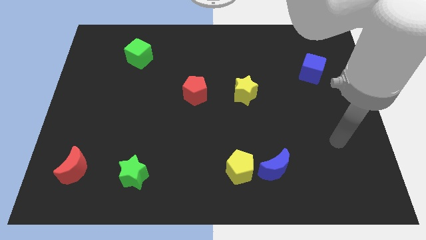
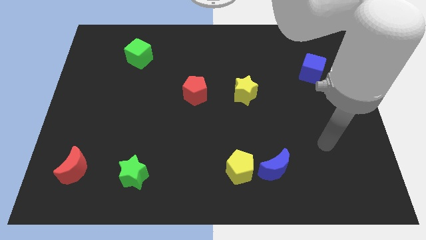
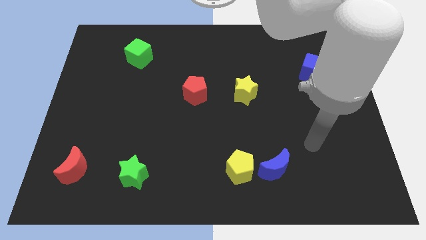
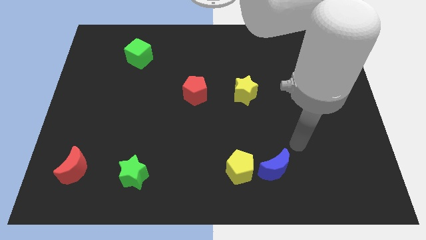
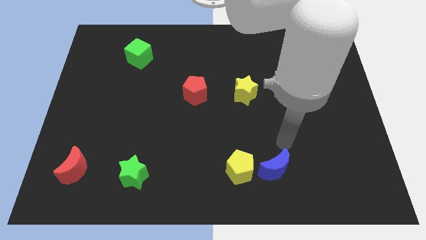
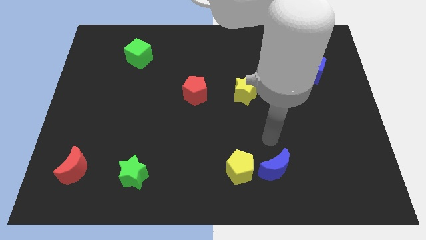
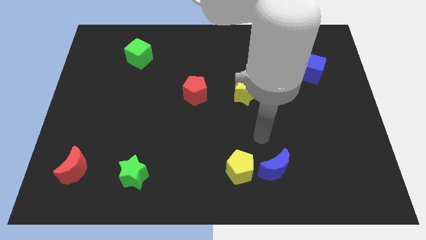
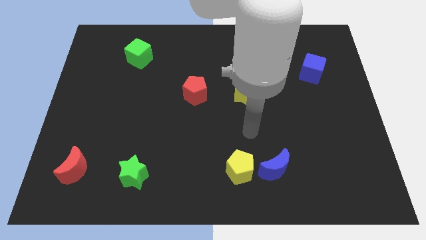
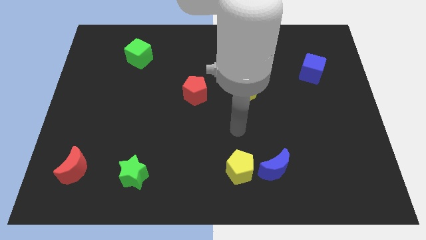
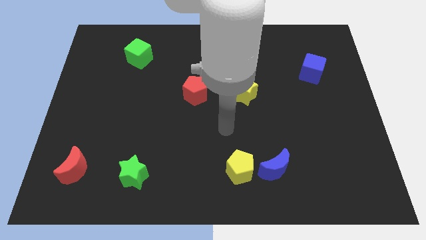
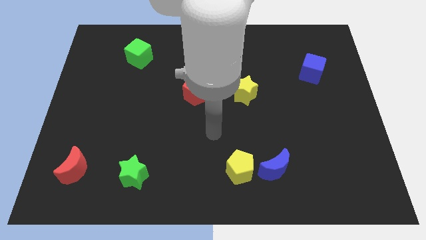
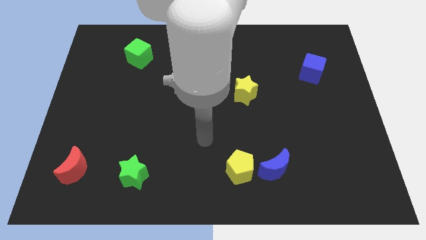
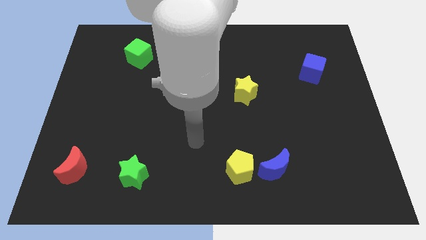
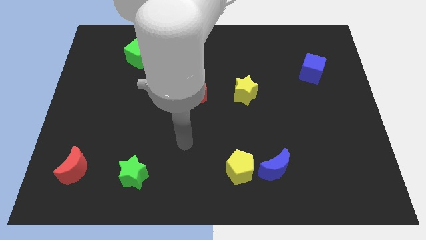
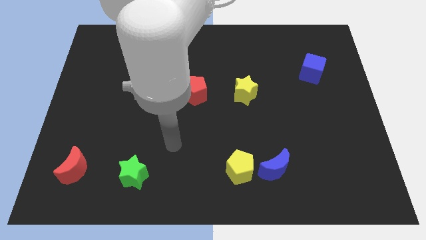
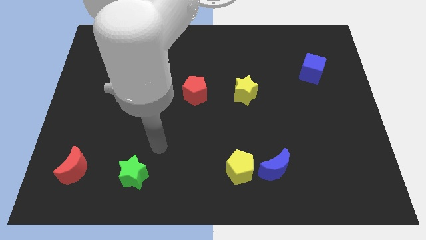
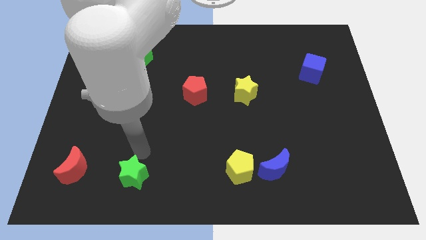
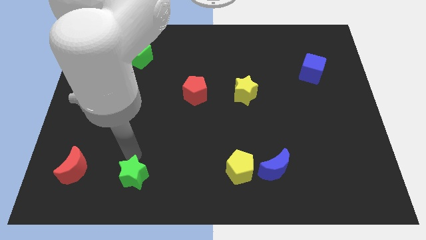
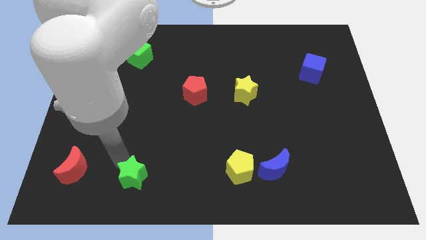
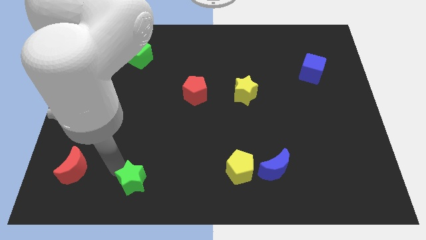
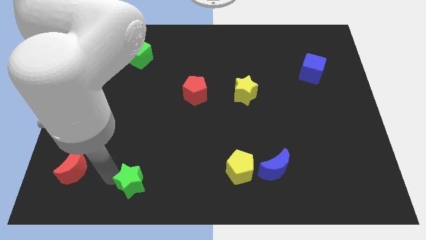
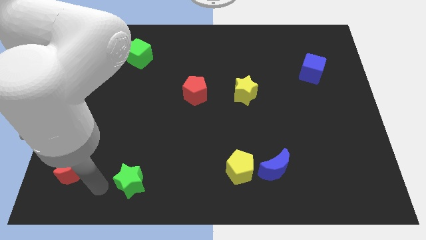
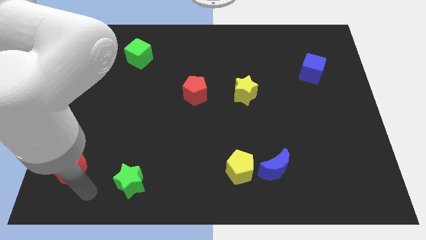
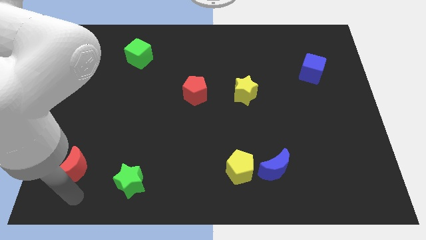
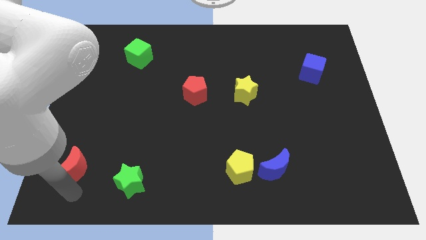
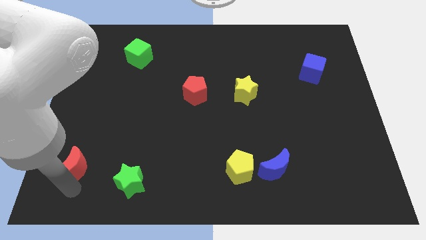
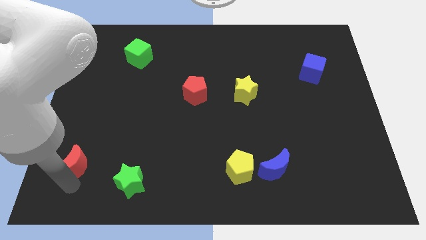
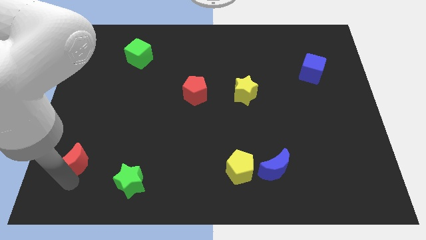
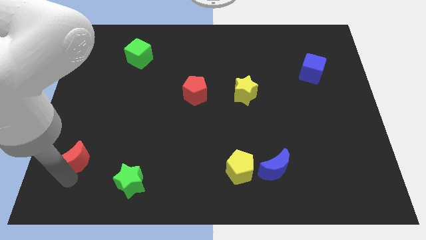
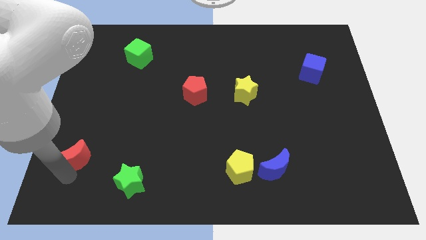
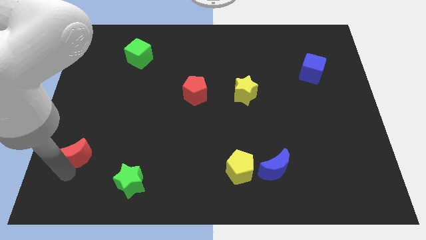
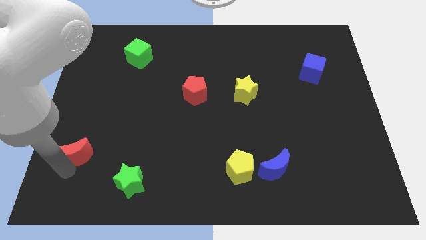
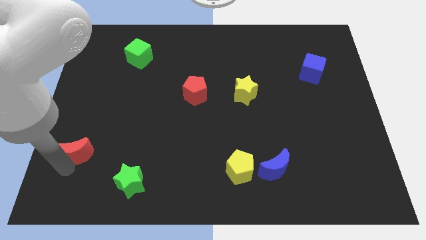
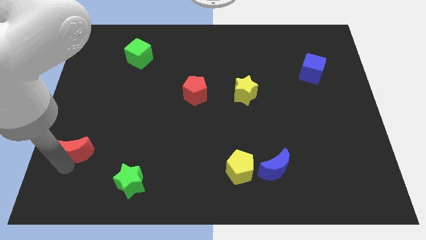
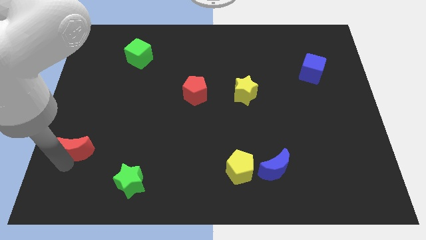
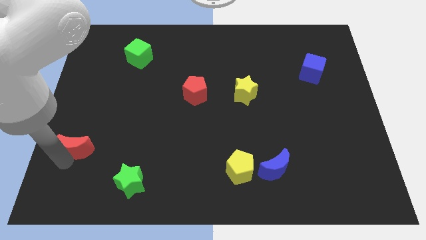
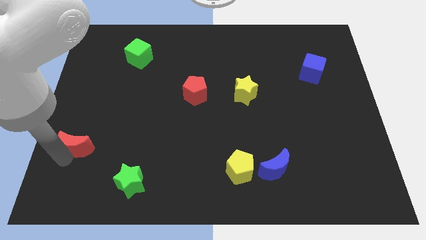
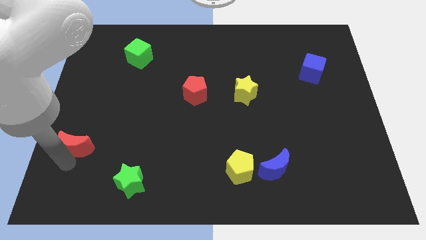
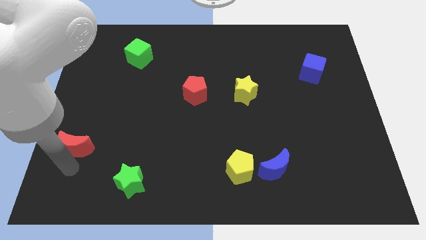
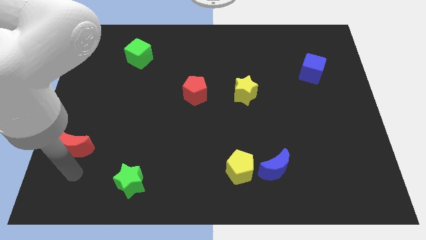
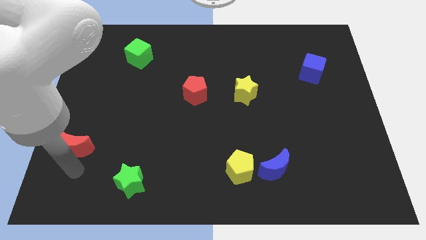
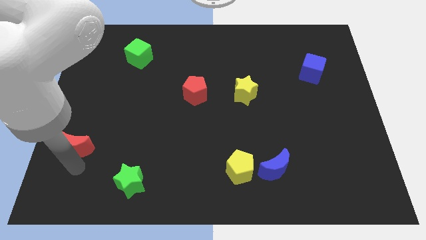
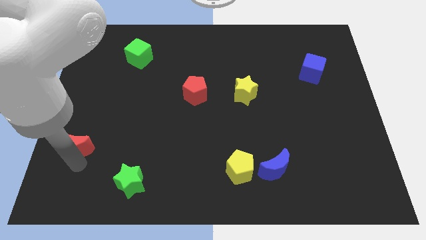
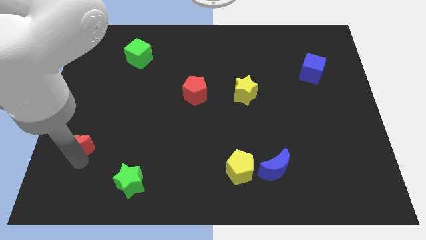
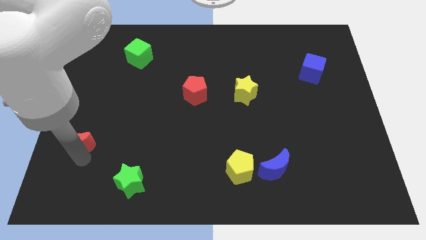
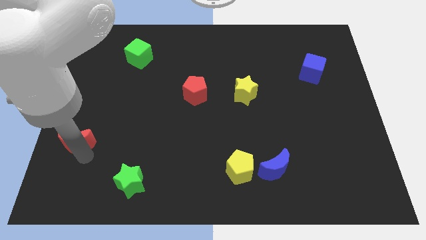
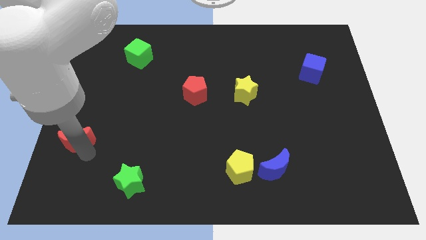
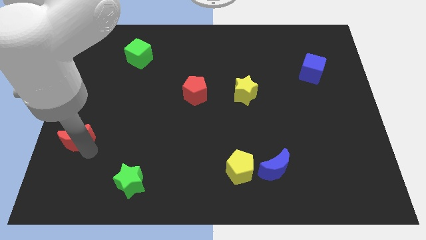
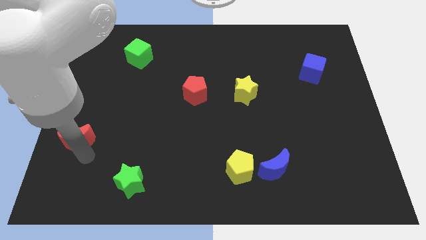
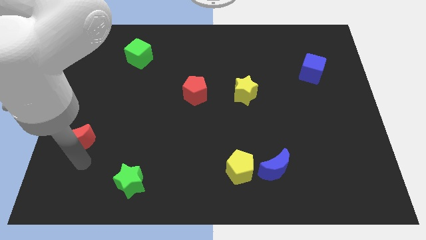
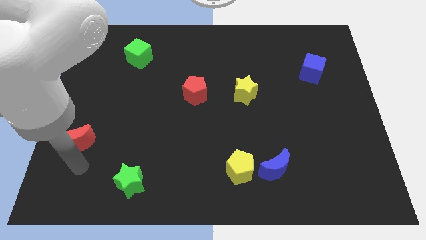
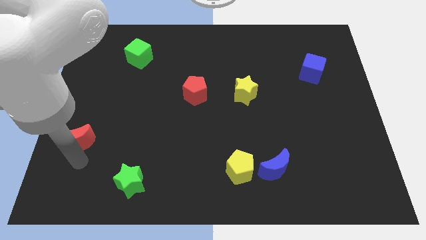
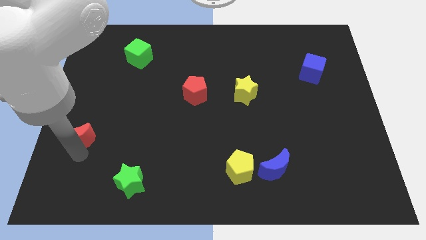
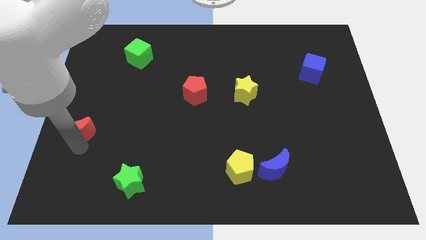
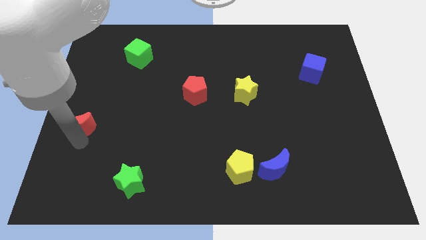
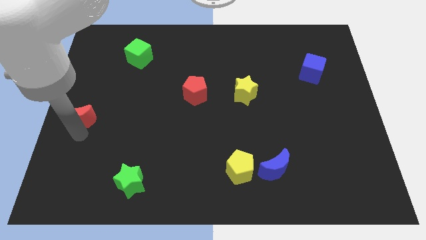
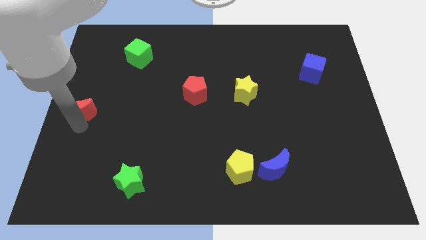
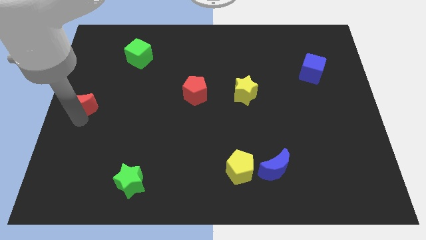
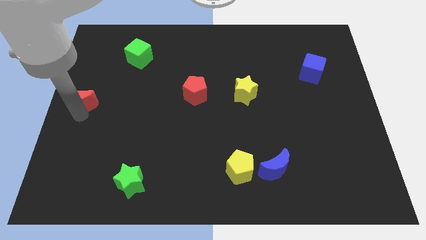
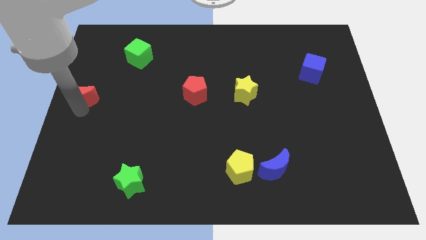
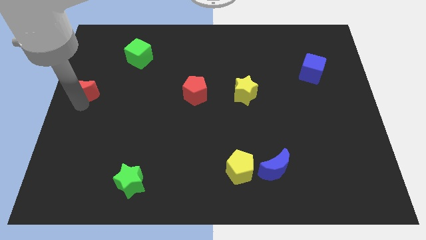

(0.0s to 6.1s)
slide the red moon up

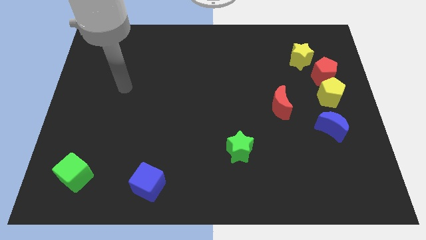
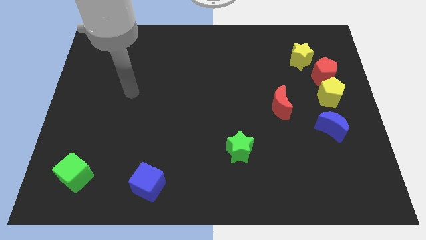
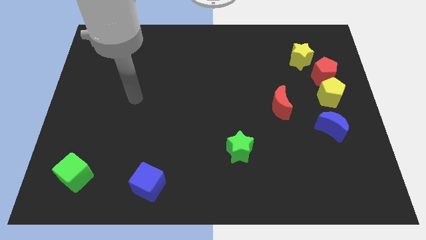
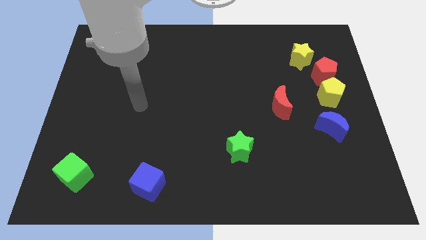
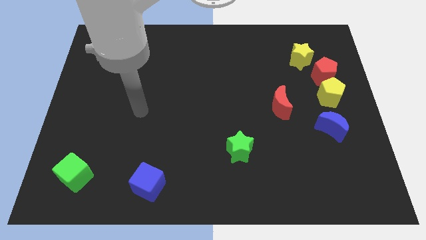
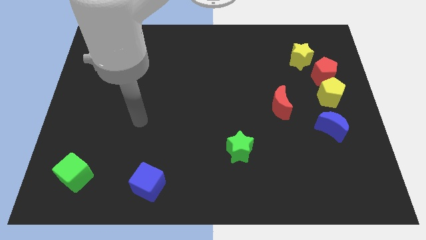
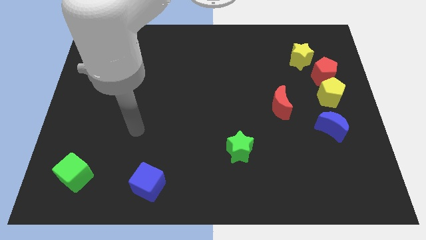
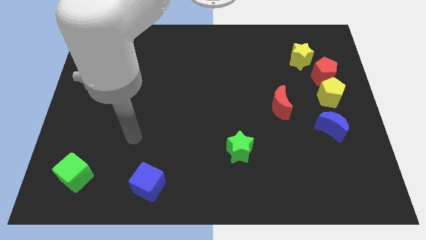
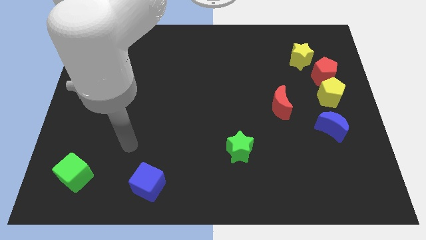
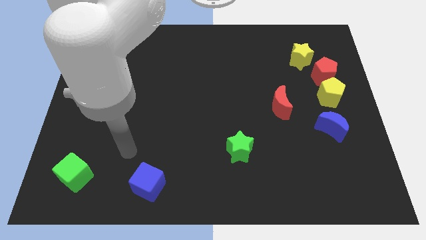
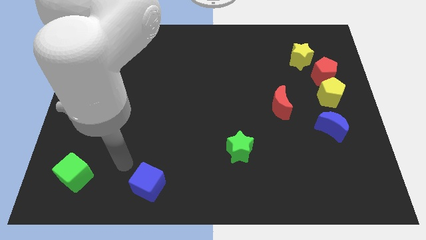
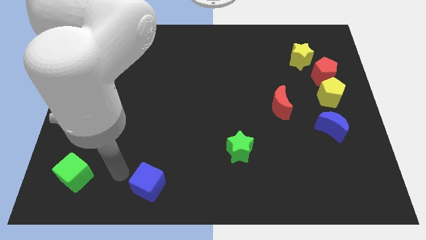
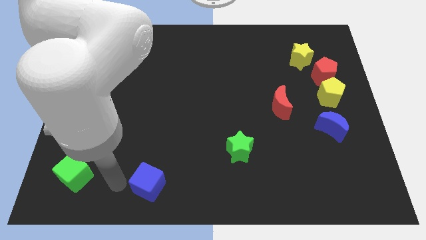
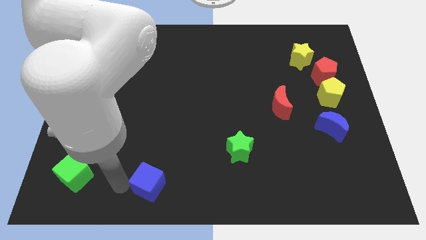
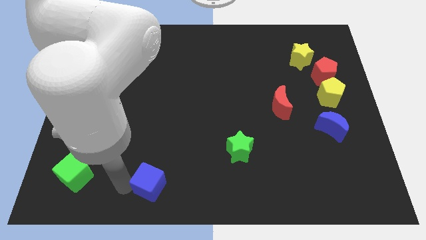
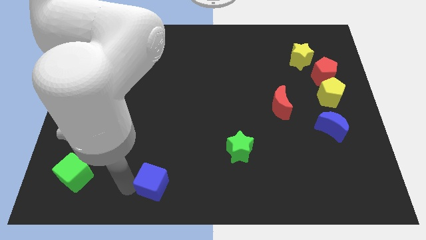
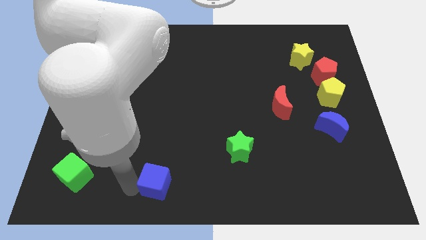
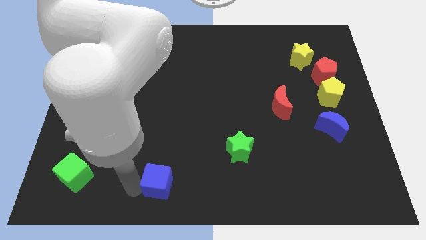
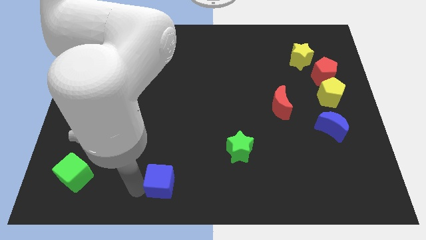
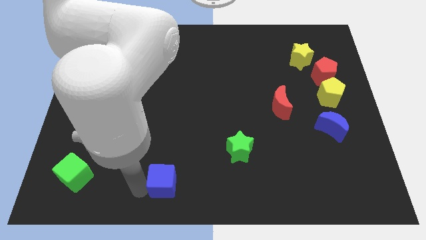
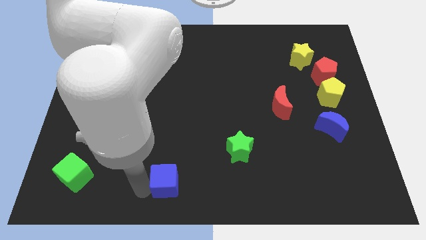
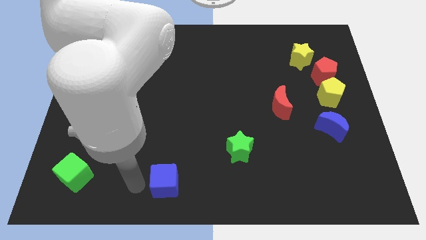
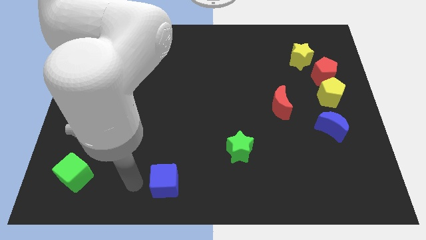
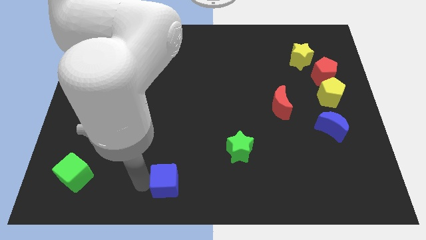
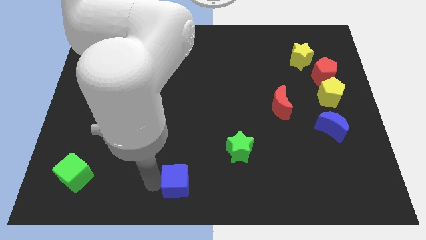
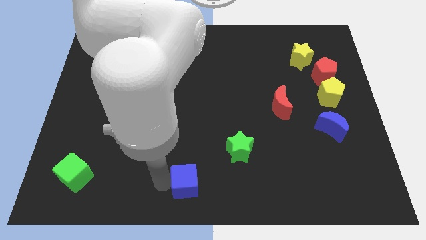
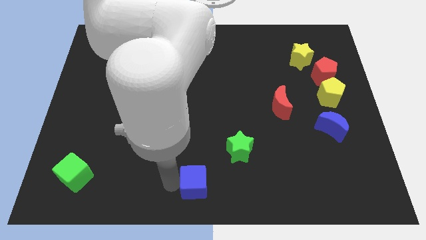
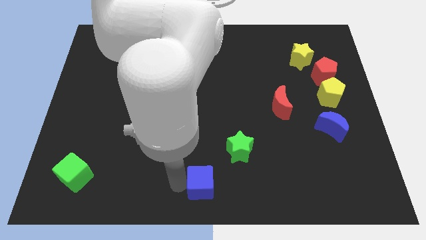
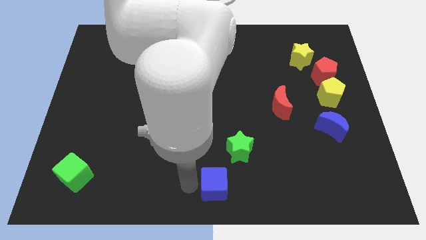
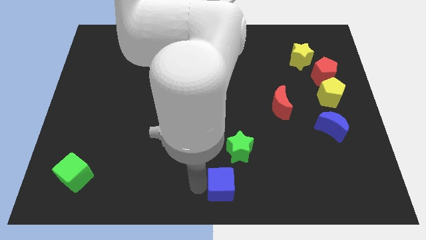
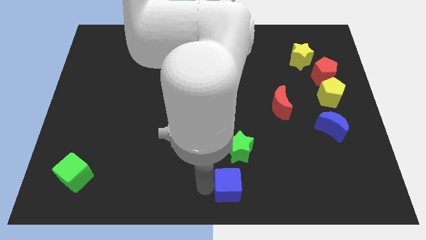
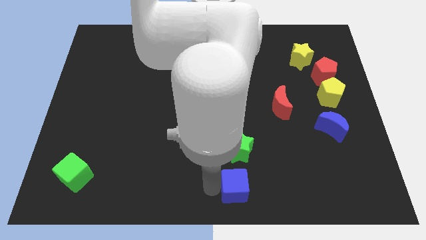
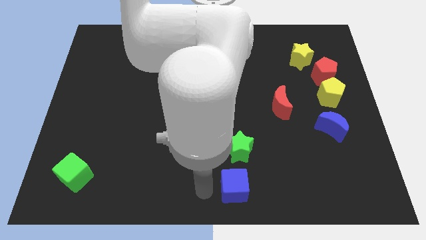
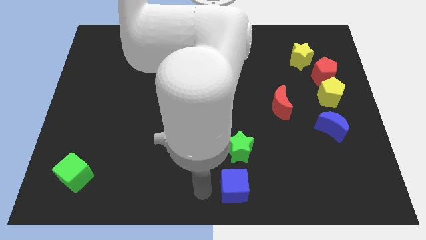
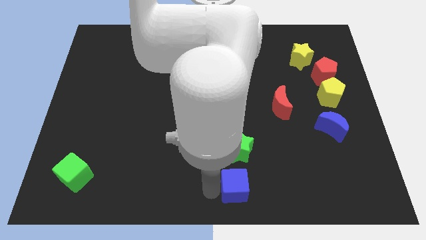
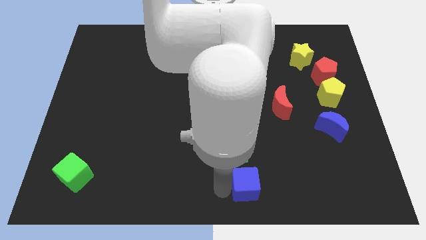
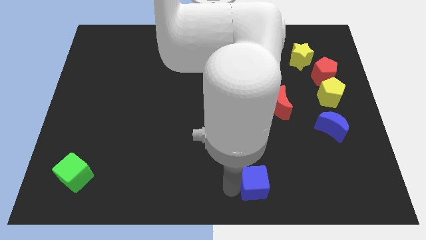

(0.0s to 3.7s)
move the blue cube right
